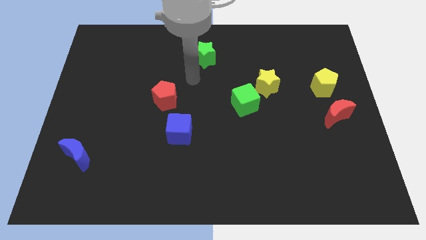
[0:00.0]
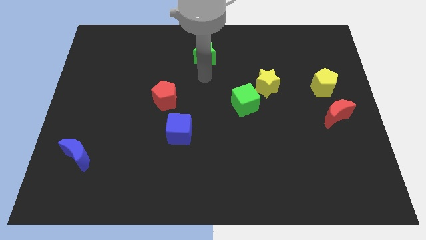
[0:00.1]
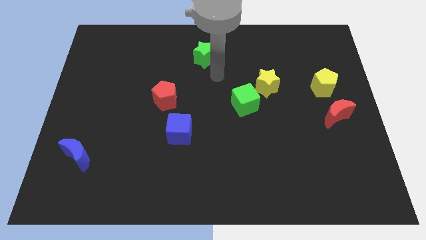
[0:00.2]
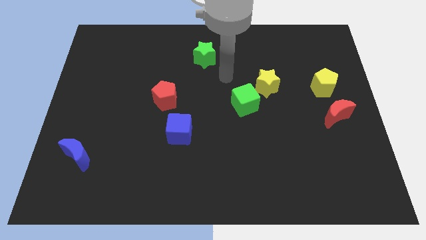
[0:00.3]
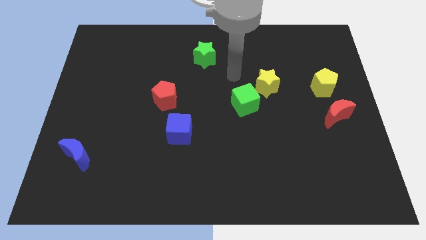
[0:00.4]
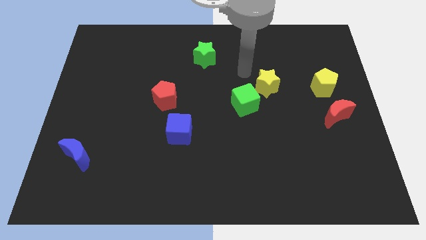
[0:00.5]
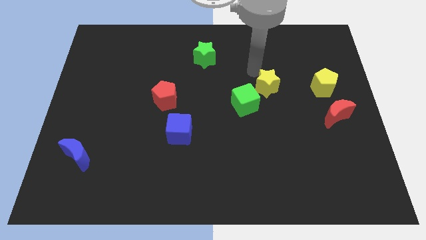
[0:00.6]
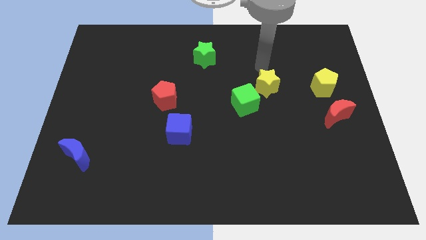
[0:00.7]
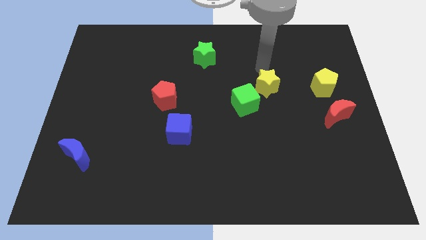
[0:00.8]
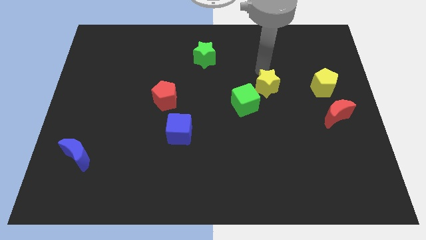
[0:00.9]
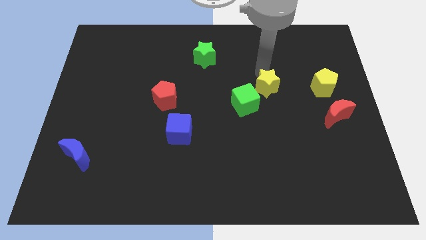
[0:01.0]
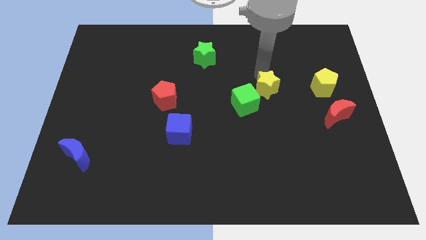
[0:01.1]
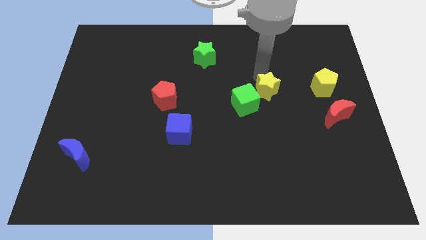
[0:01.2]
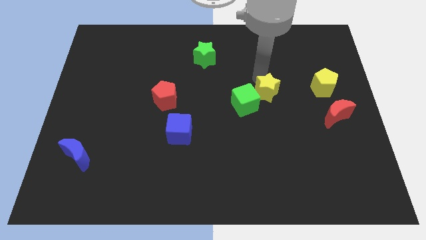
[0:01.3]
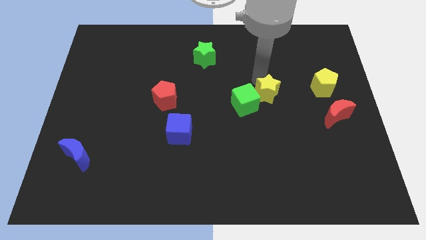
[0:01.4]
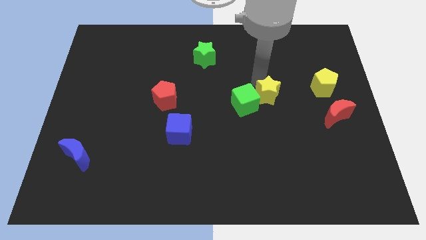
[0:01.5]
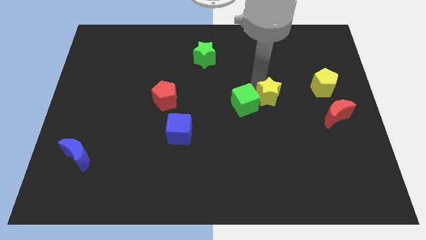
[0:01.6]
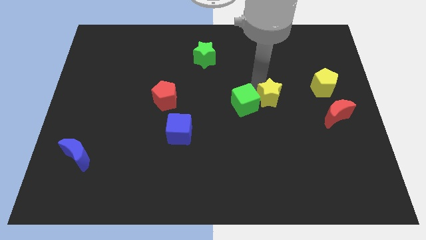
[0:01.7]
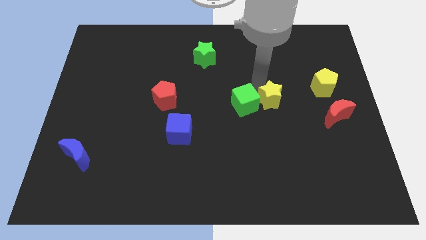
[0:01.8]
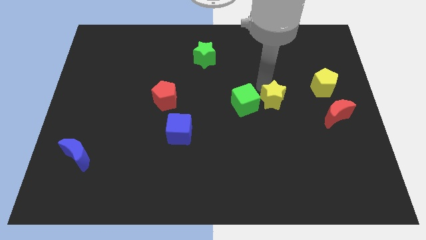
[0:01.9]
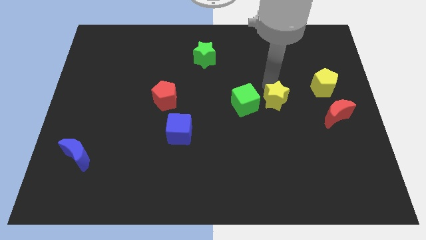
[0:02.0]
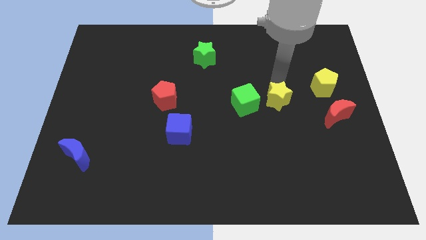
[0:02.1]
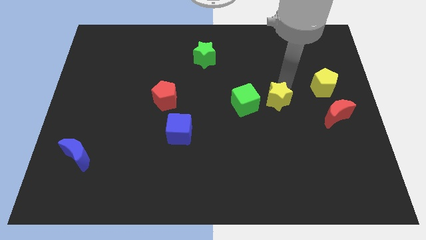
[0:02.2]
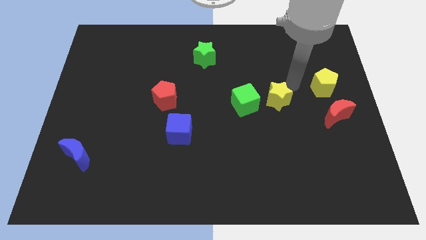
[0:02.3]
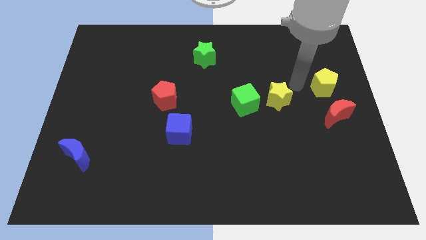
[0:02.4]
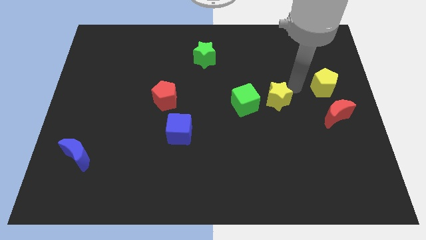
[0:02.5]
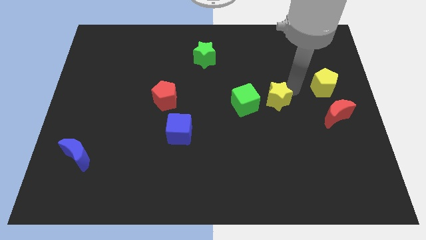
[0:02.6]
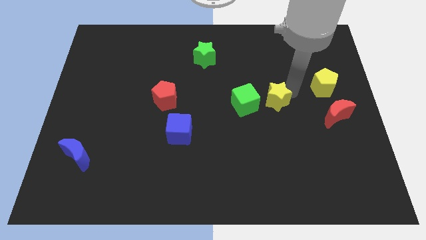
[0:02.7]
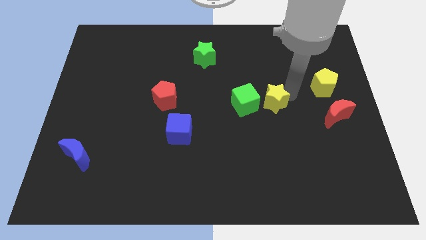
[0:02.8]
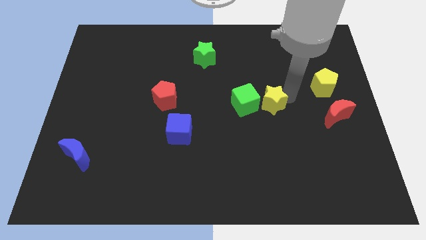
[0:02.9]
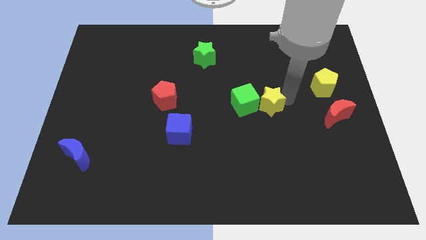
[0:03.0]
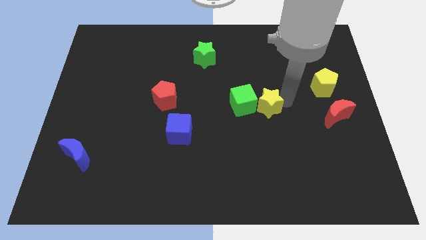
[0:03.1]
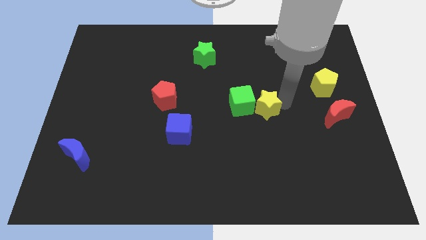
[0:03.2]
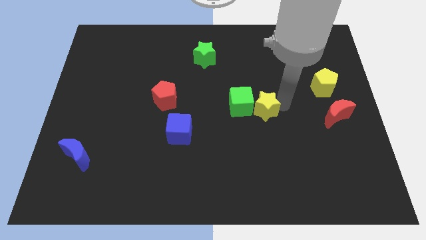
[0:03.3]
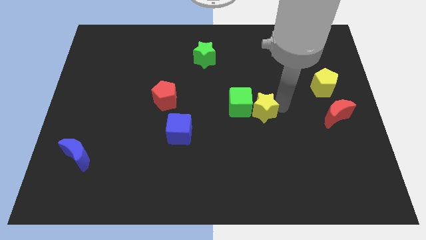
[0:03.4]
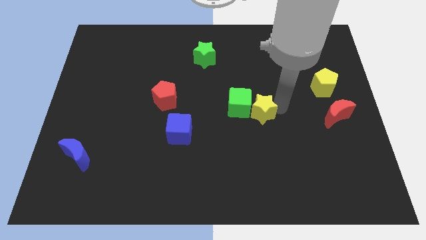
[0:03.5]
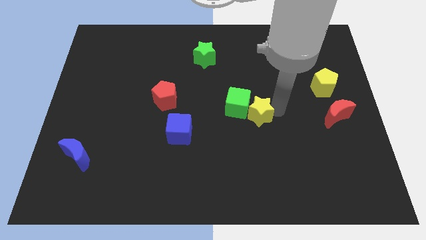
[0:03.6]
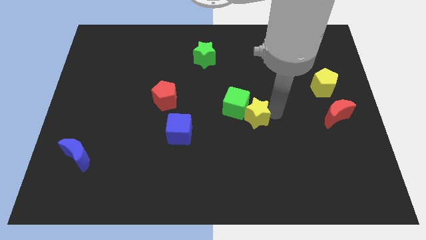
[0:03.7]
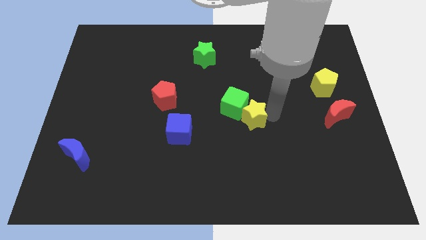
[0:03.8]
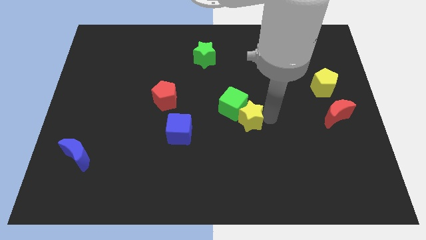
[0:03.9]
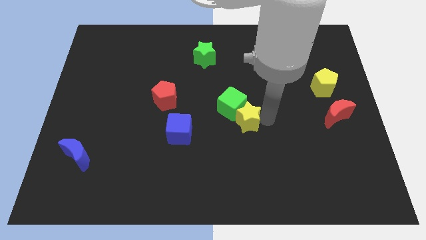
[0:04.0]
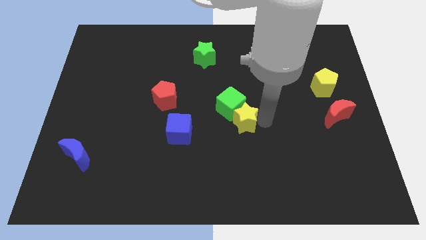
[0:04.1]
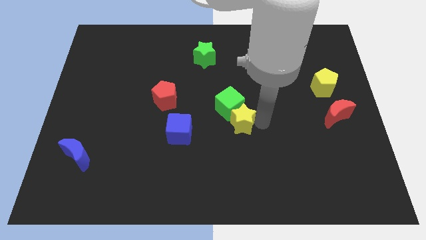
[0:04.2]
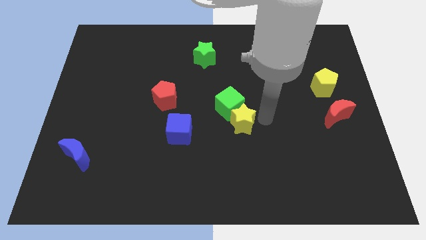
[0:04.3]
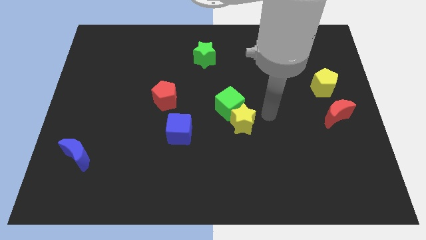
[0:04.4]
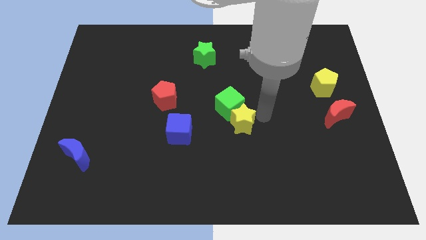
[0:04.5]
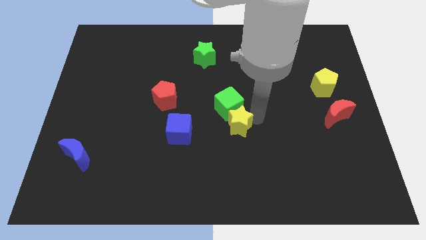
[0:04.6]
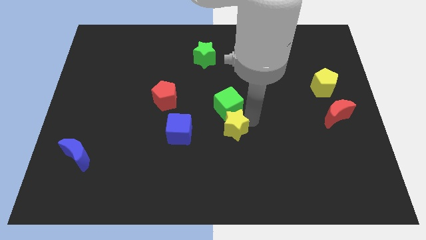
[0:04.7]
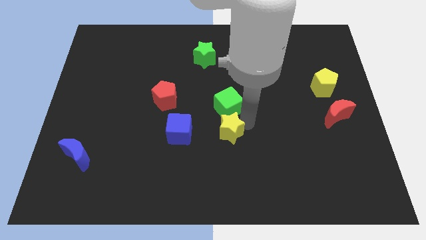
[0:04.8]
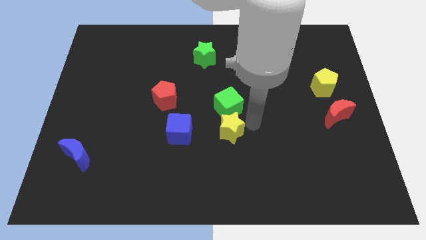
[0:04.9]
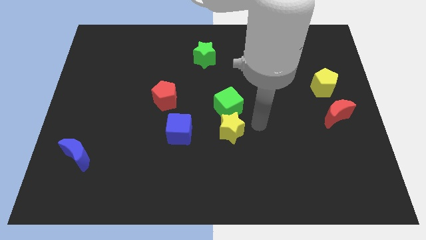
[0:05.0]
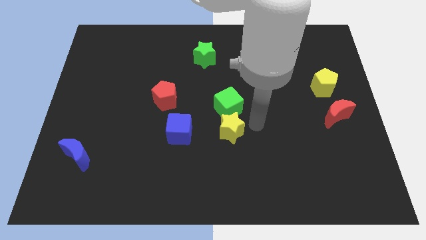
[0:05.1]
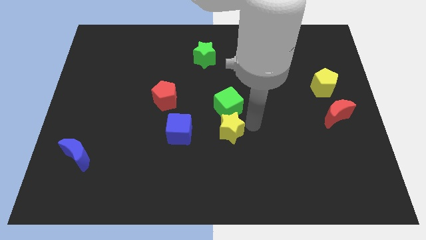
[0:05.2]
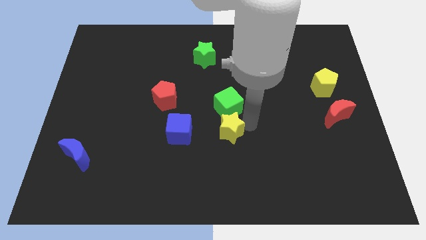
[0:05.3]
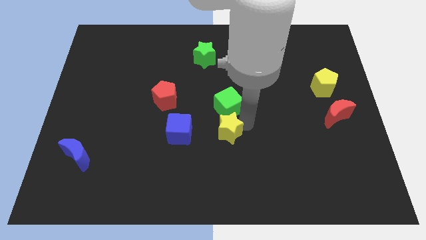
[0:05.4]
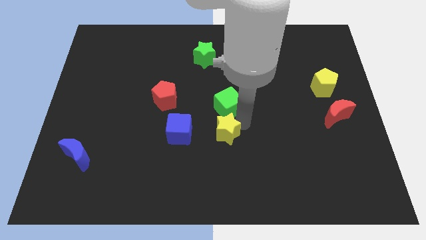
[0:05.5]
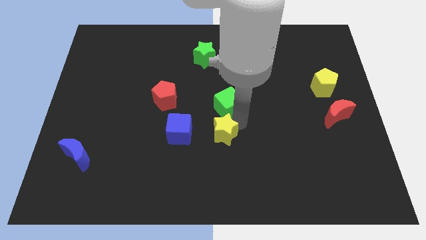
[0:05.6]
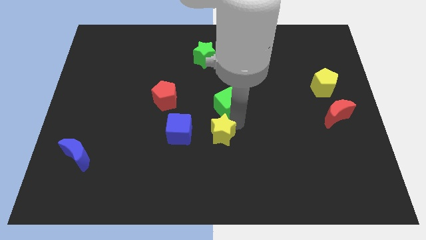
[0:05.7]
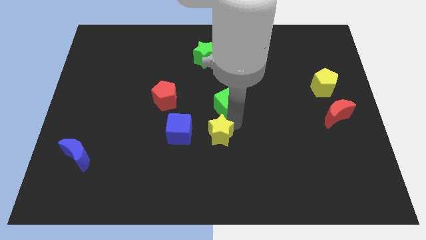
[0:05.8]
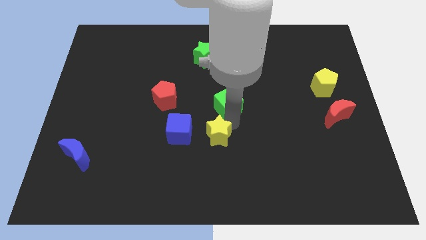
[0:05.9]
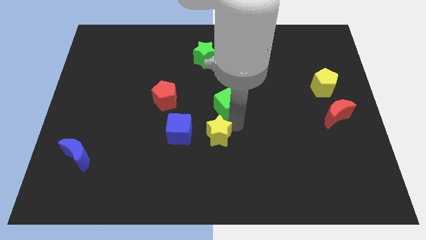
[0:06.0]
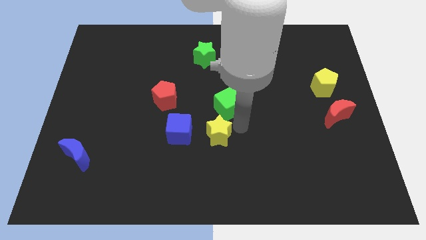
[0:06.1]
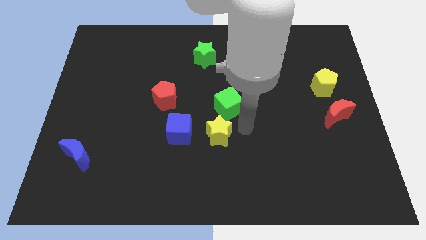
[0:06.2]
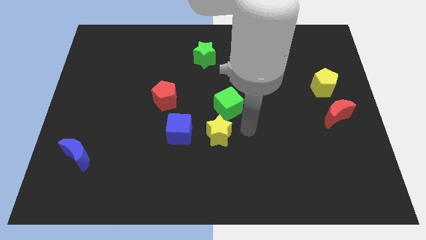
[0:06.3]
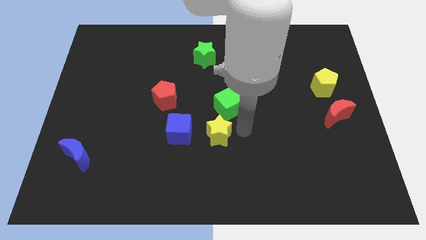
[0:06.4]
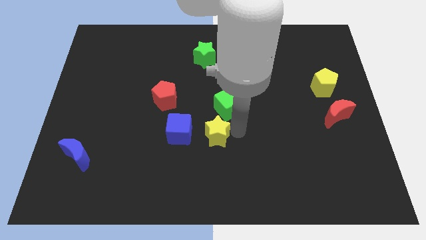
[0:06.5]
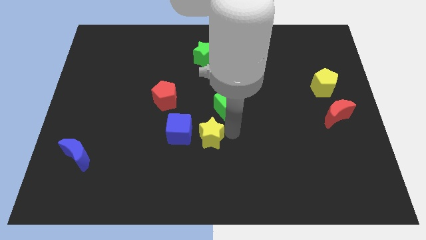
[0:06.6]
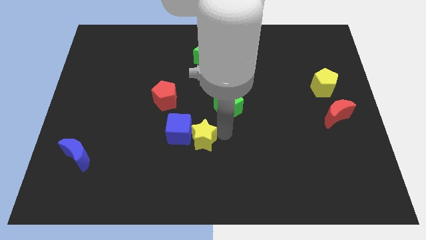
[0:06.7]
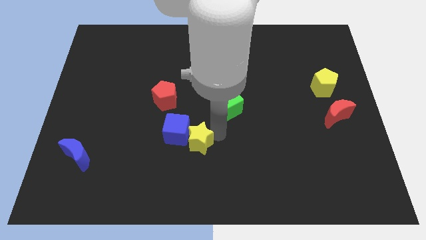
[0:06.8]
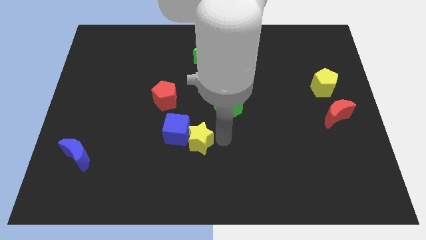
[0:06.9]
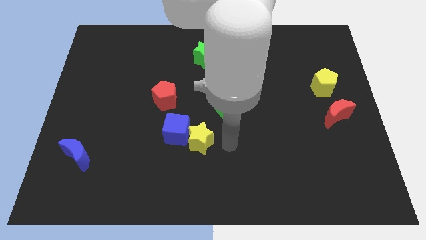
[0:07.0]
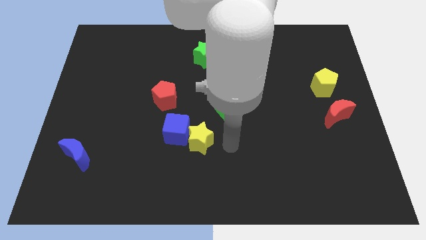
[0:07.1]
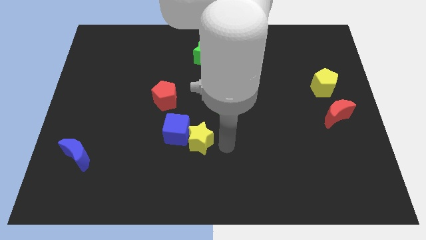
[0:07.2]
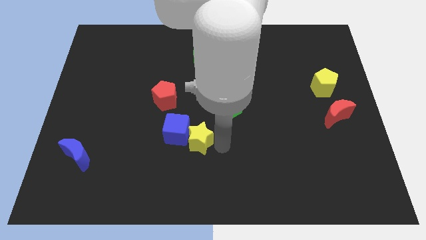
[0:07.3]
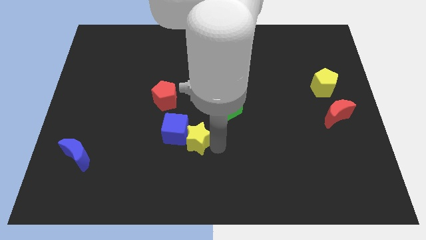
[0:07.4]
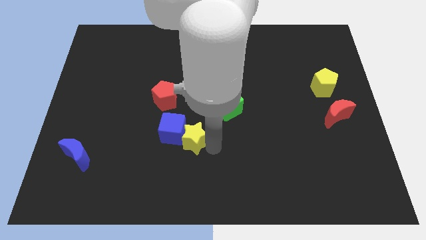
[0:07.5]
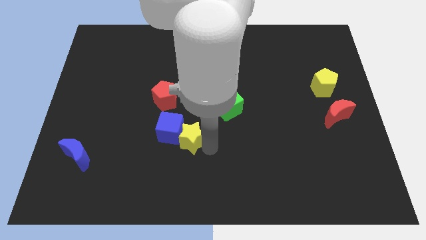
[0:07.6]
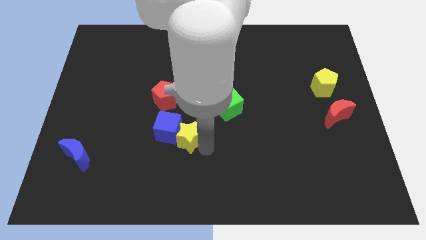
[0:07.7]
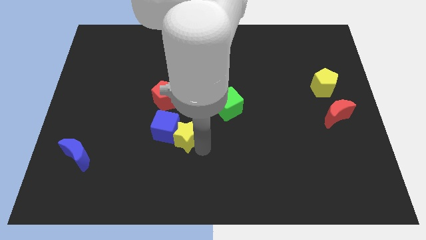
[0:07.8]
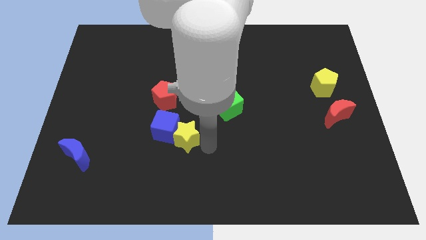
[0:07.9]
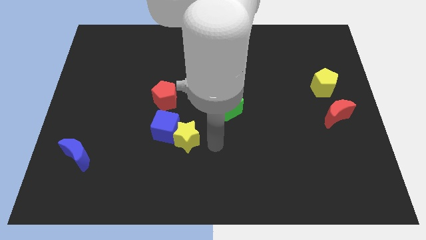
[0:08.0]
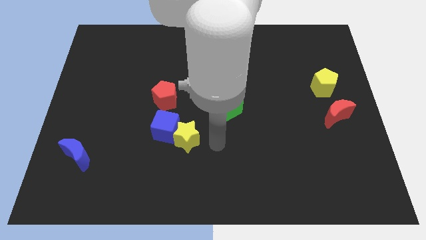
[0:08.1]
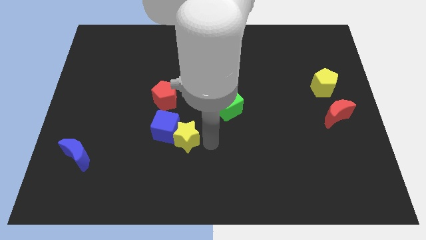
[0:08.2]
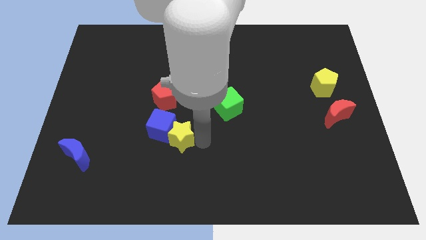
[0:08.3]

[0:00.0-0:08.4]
push the yellow star to the bottom of the red pentagon
